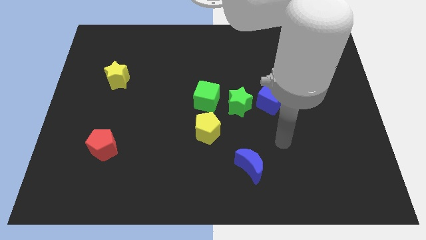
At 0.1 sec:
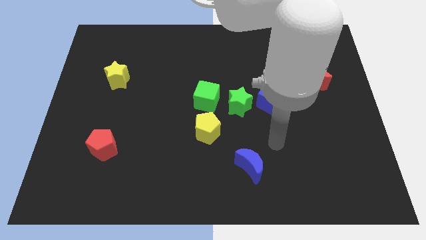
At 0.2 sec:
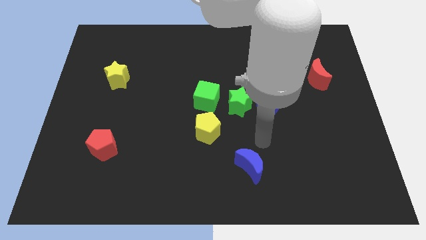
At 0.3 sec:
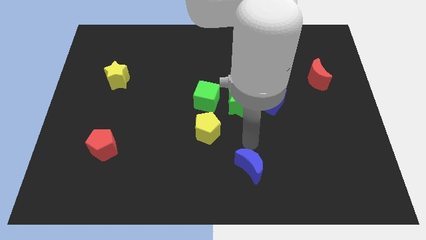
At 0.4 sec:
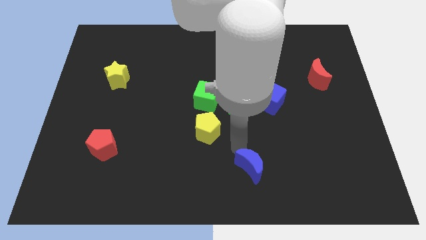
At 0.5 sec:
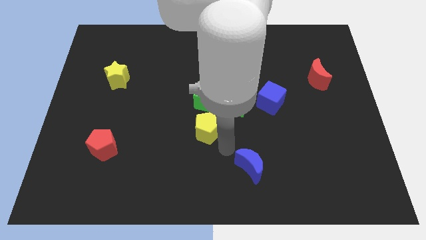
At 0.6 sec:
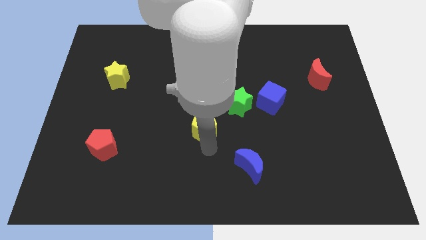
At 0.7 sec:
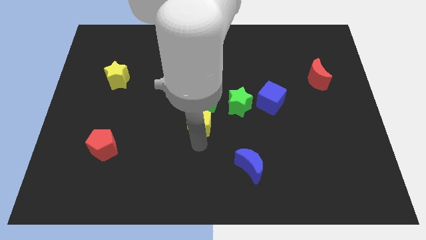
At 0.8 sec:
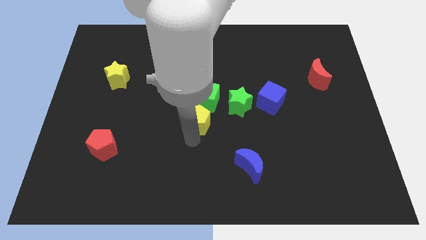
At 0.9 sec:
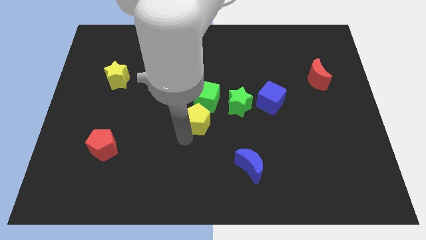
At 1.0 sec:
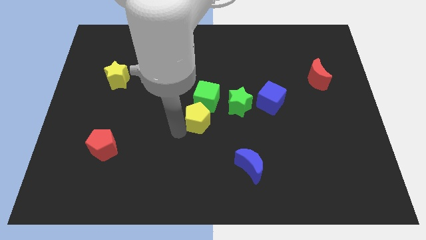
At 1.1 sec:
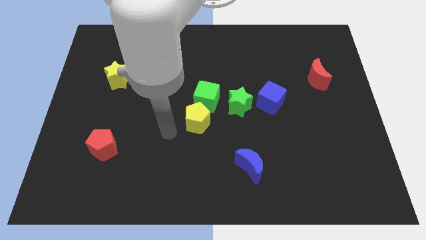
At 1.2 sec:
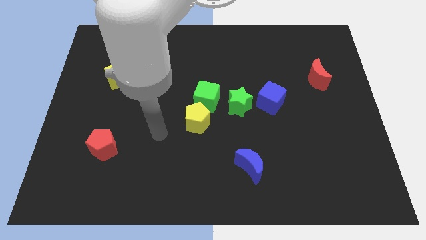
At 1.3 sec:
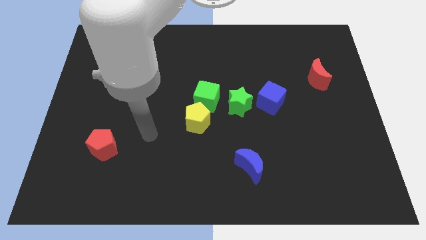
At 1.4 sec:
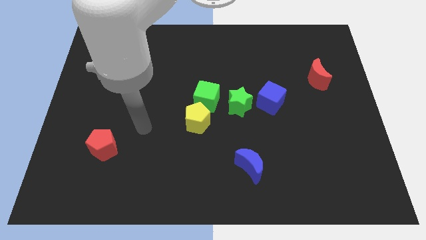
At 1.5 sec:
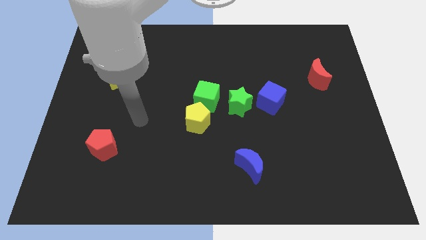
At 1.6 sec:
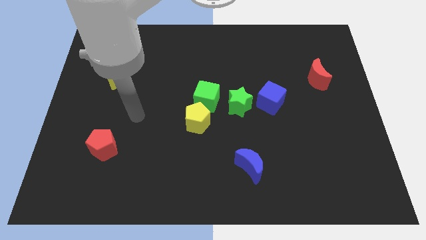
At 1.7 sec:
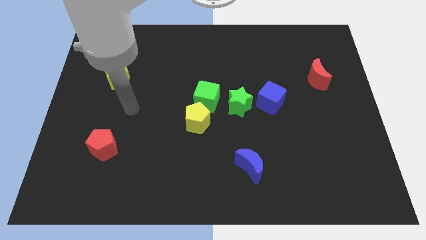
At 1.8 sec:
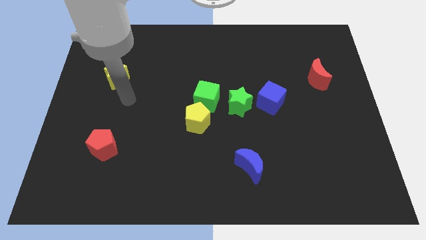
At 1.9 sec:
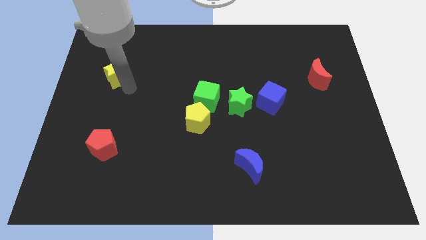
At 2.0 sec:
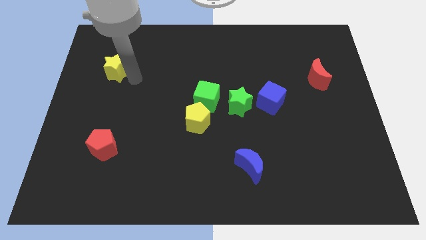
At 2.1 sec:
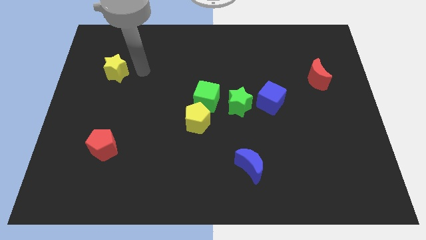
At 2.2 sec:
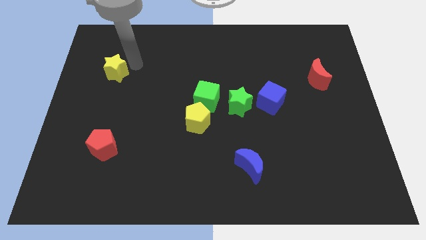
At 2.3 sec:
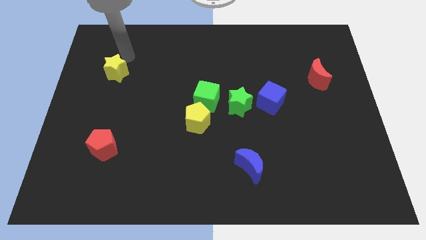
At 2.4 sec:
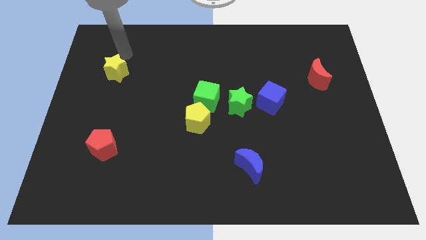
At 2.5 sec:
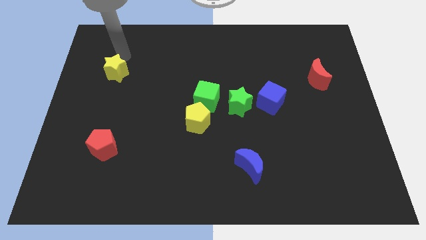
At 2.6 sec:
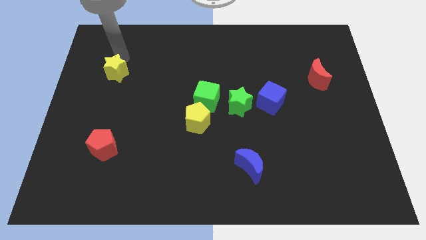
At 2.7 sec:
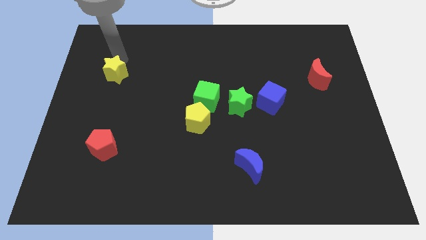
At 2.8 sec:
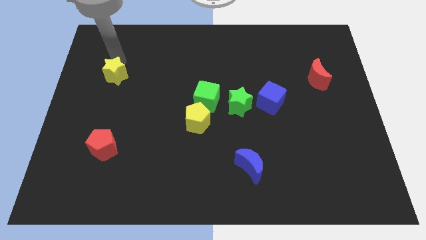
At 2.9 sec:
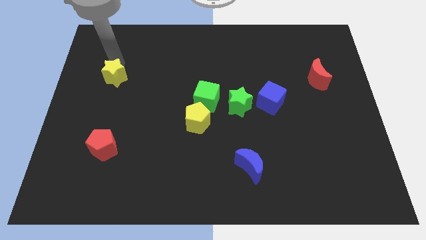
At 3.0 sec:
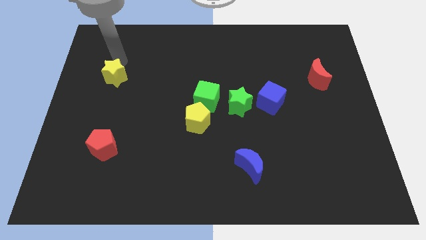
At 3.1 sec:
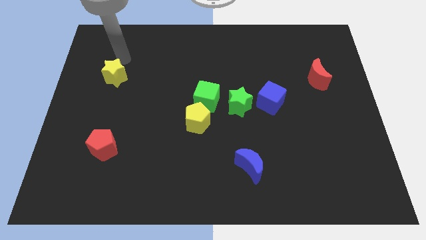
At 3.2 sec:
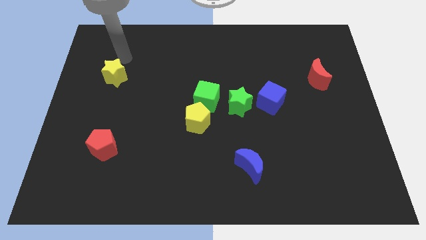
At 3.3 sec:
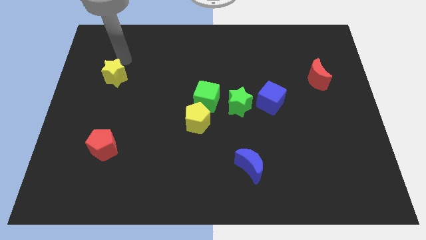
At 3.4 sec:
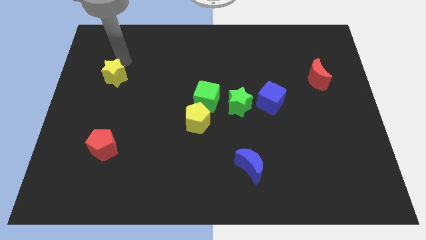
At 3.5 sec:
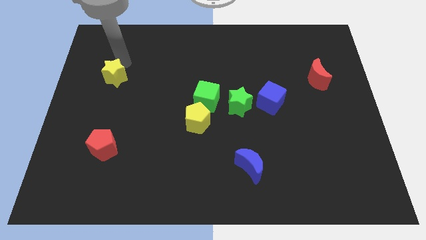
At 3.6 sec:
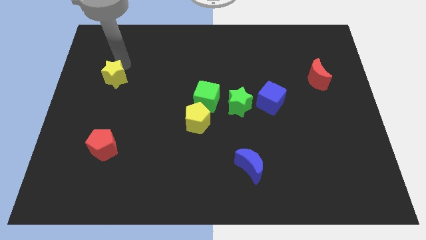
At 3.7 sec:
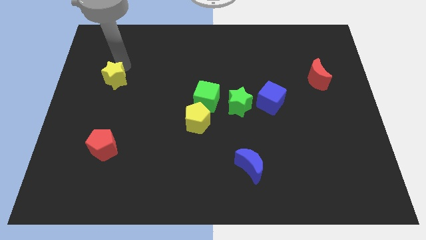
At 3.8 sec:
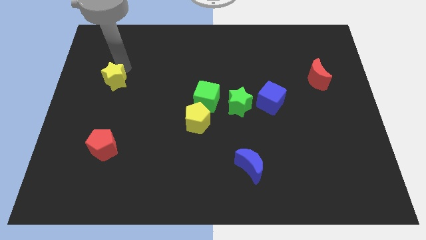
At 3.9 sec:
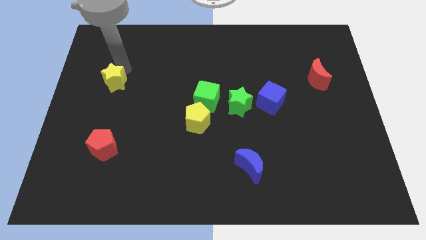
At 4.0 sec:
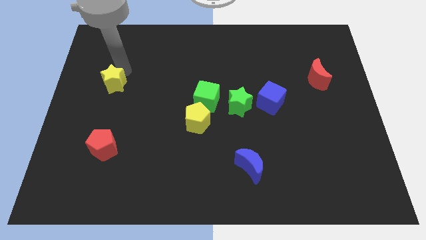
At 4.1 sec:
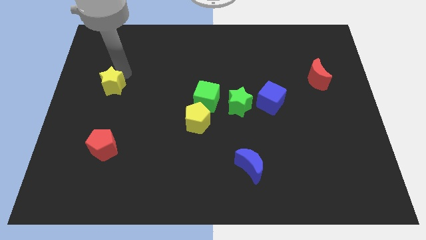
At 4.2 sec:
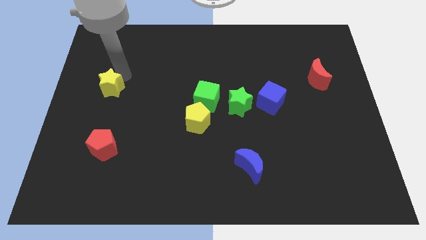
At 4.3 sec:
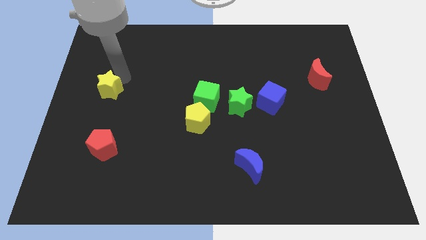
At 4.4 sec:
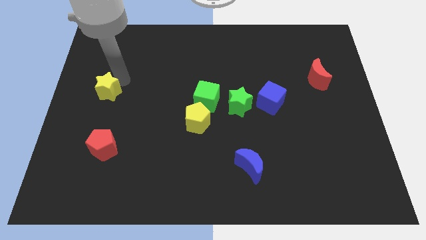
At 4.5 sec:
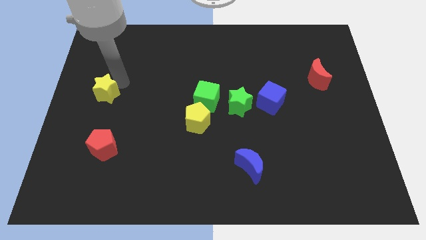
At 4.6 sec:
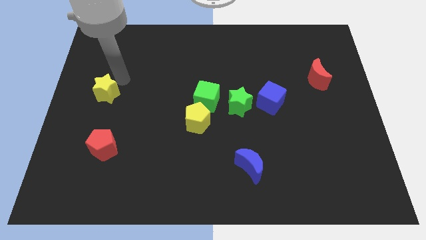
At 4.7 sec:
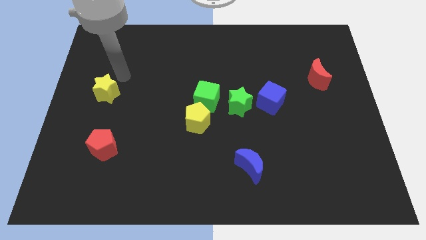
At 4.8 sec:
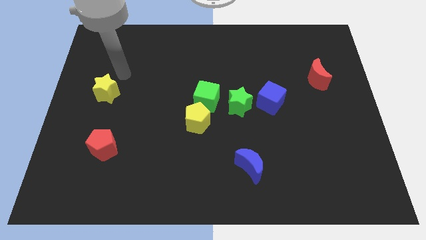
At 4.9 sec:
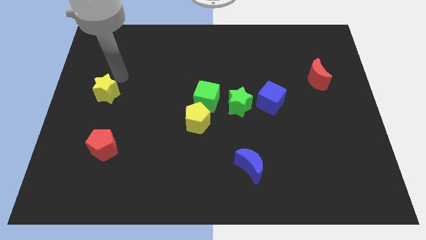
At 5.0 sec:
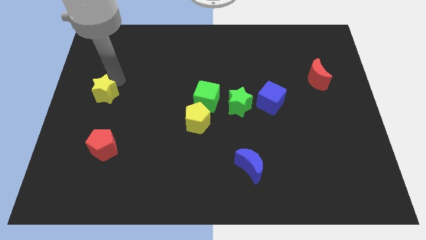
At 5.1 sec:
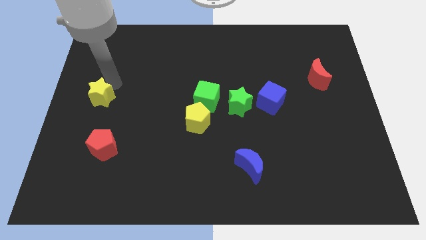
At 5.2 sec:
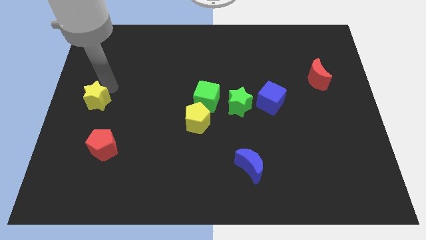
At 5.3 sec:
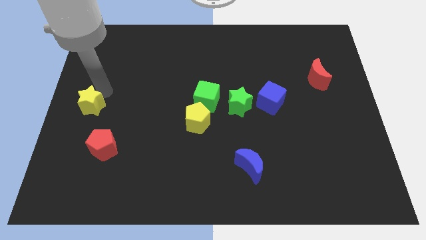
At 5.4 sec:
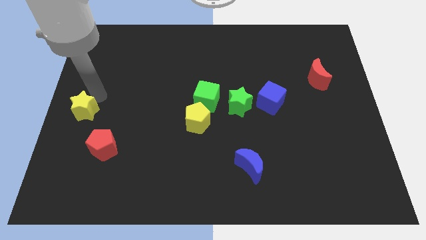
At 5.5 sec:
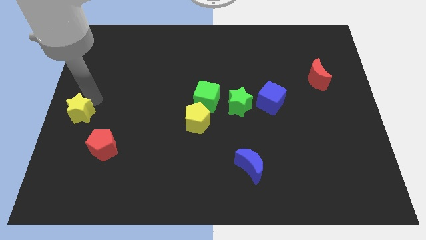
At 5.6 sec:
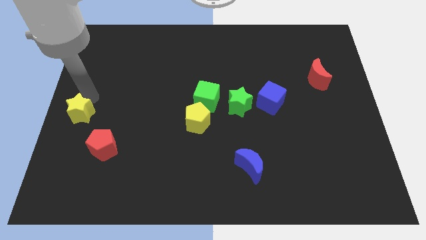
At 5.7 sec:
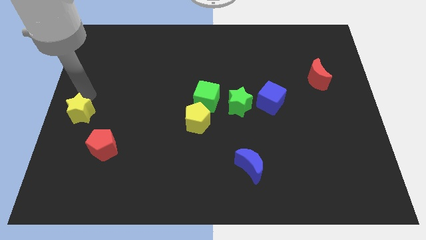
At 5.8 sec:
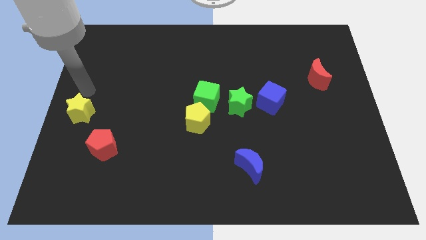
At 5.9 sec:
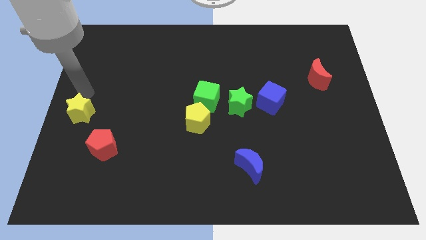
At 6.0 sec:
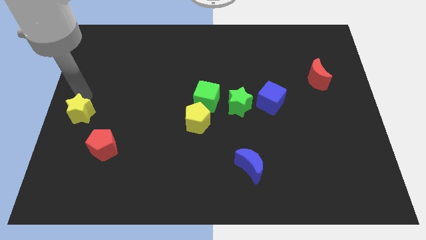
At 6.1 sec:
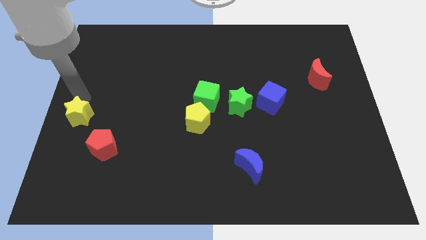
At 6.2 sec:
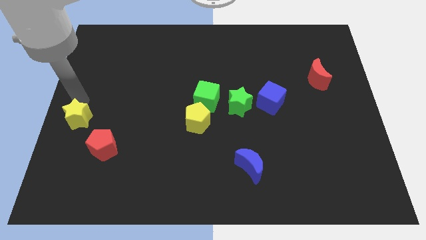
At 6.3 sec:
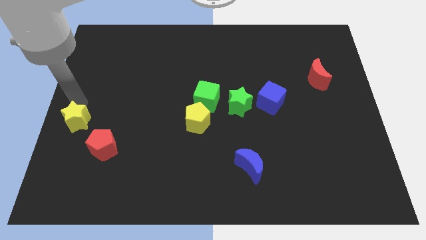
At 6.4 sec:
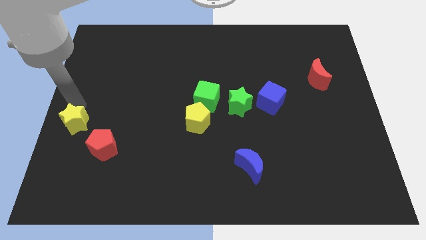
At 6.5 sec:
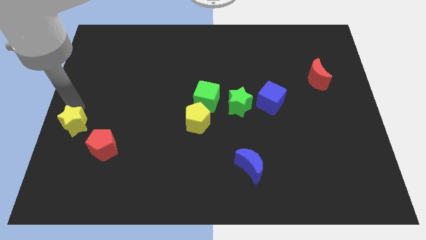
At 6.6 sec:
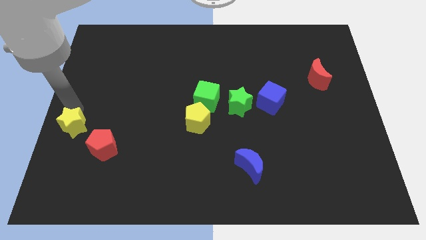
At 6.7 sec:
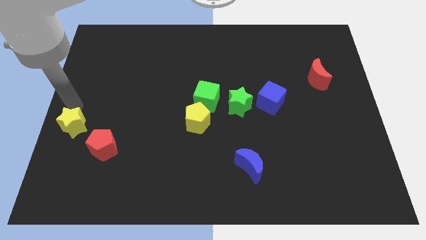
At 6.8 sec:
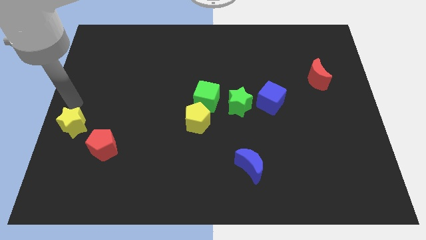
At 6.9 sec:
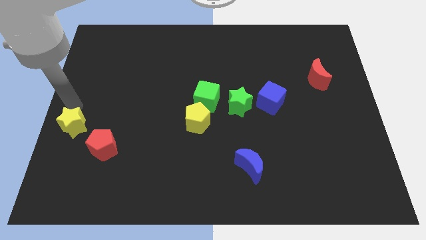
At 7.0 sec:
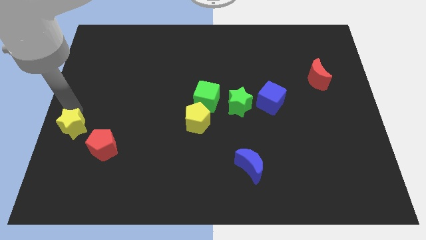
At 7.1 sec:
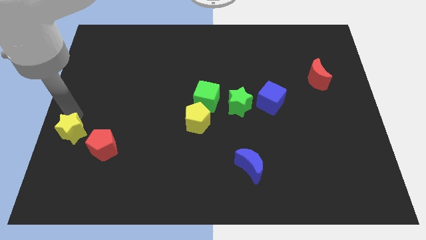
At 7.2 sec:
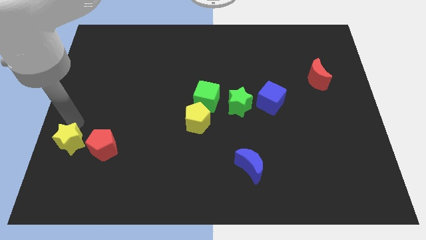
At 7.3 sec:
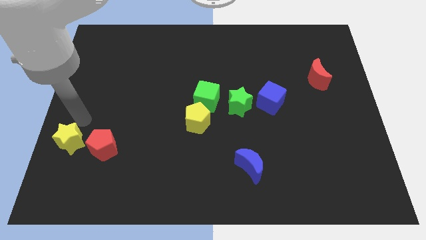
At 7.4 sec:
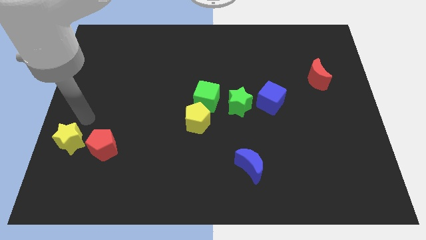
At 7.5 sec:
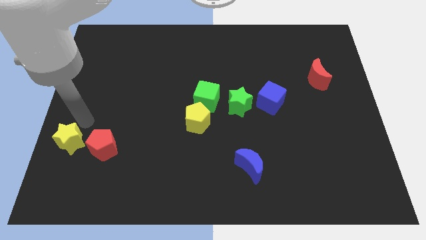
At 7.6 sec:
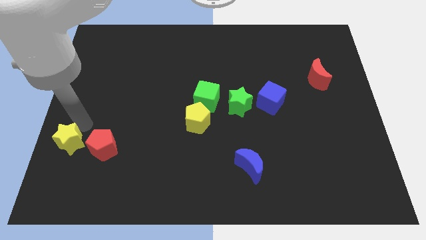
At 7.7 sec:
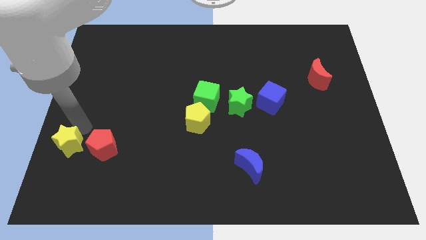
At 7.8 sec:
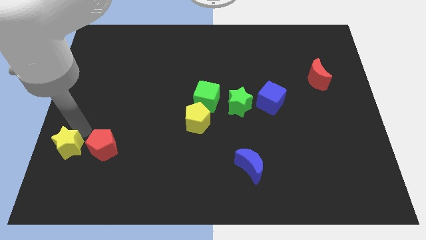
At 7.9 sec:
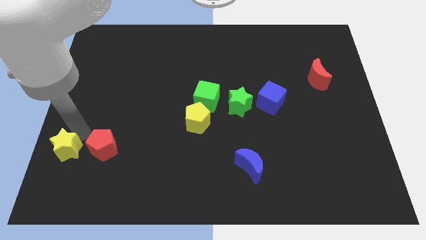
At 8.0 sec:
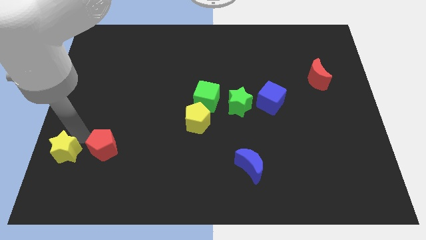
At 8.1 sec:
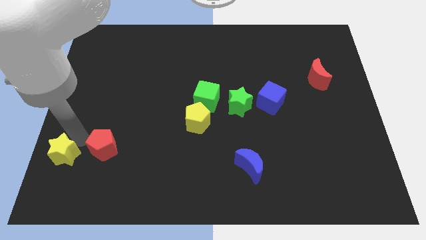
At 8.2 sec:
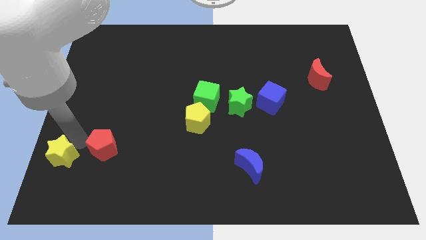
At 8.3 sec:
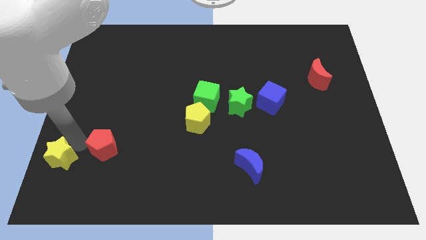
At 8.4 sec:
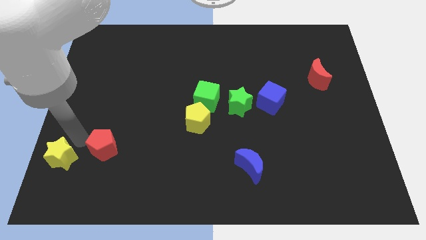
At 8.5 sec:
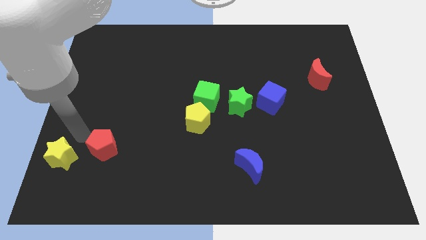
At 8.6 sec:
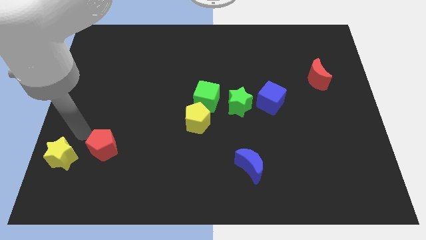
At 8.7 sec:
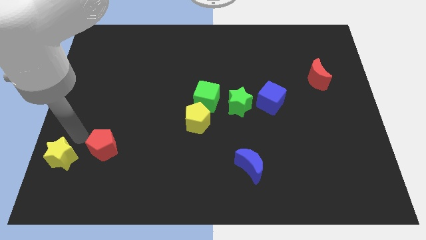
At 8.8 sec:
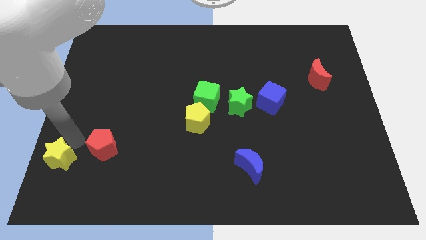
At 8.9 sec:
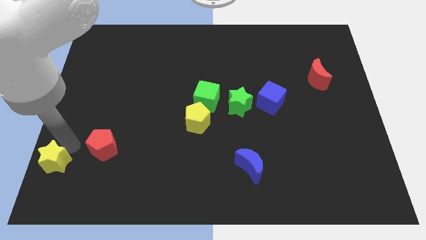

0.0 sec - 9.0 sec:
put the yellow star to the bottom left
